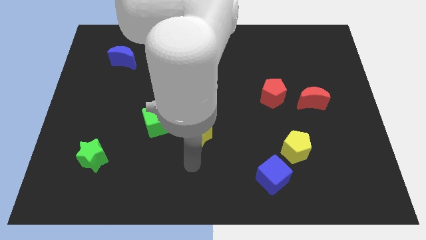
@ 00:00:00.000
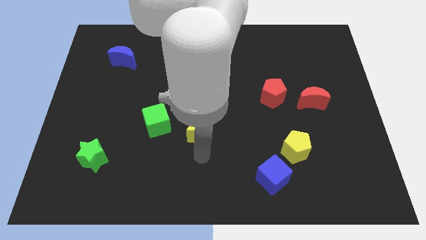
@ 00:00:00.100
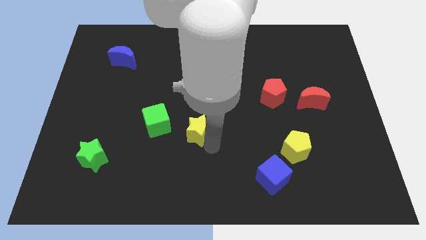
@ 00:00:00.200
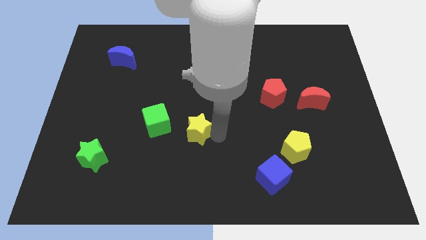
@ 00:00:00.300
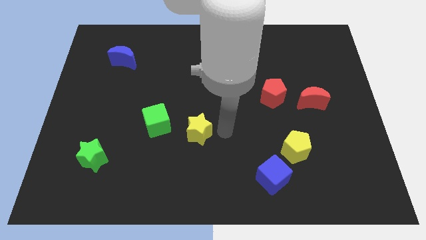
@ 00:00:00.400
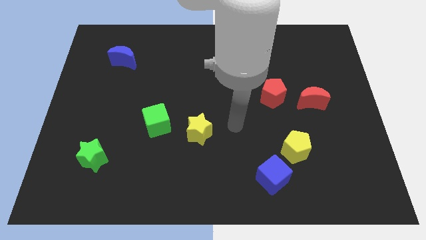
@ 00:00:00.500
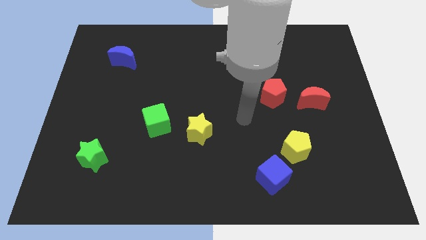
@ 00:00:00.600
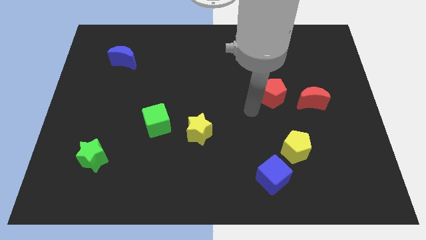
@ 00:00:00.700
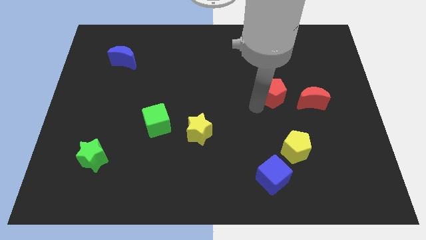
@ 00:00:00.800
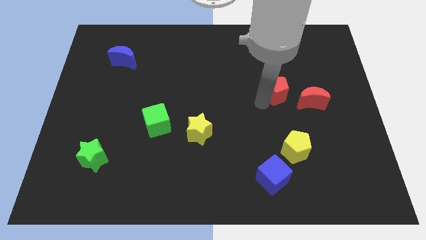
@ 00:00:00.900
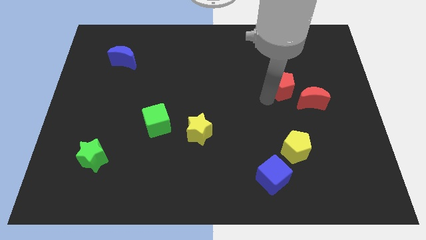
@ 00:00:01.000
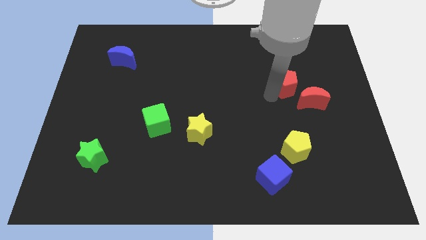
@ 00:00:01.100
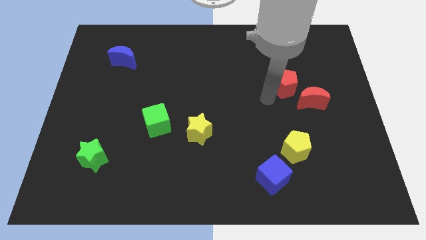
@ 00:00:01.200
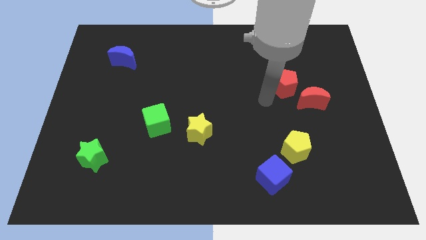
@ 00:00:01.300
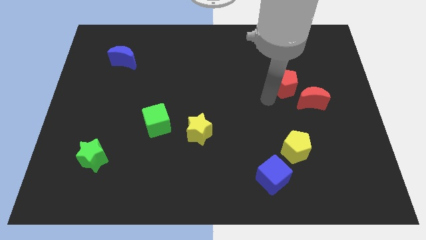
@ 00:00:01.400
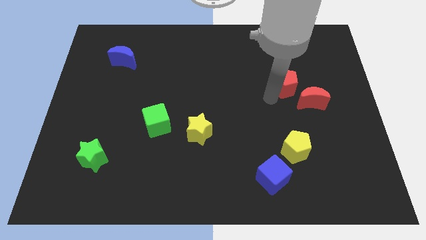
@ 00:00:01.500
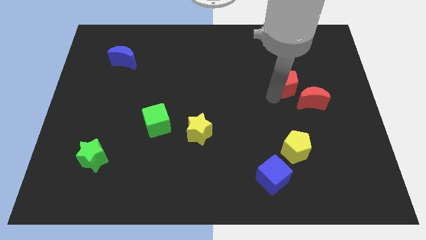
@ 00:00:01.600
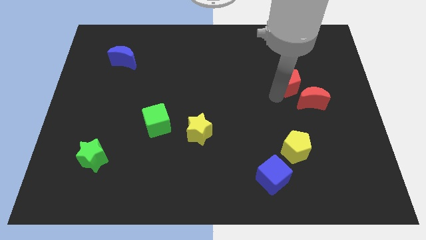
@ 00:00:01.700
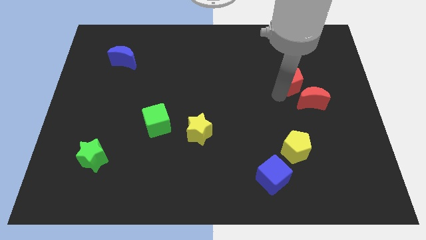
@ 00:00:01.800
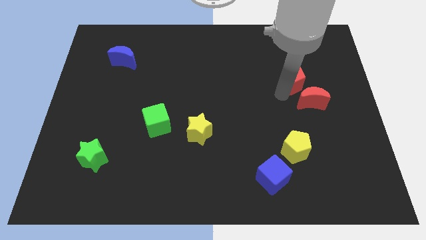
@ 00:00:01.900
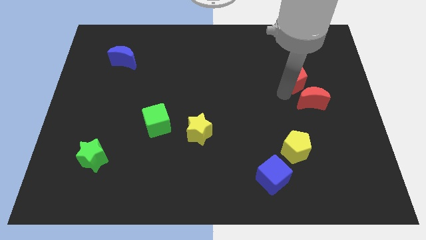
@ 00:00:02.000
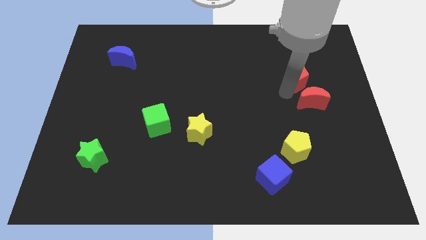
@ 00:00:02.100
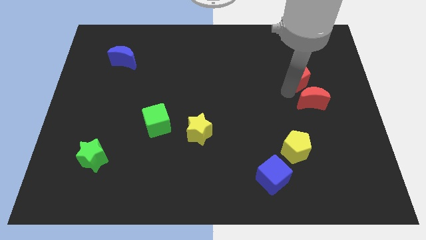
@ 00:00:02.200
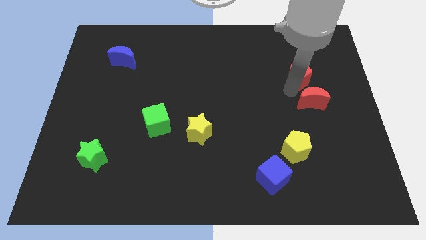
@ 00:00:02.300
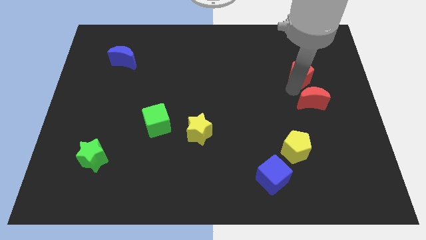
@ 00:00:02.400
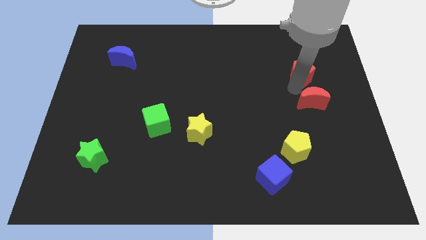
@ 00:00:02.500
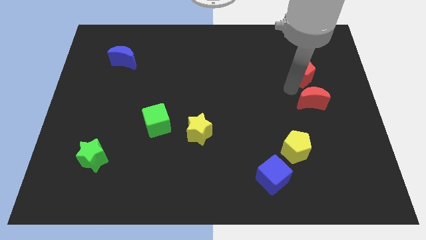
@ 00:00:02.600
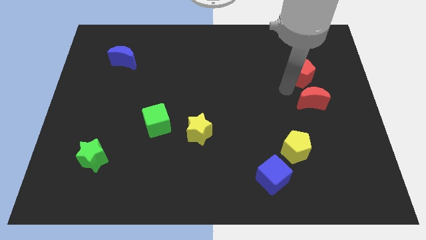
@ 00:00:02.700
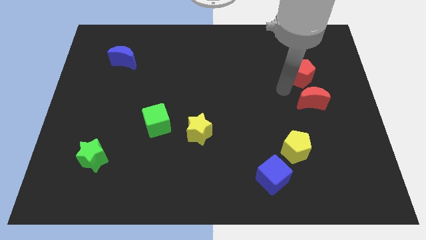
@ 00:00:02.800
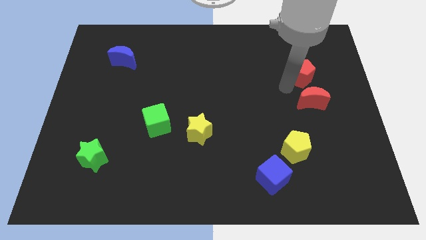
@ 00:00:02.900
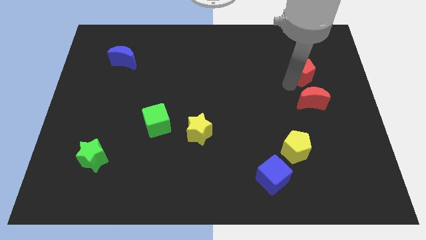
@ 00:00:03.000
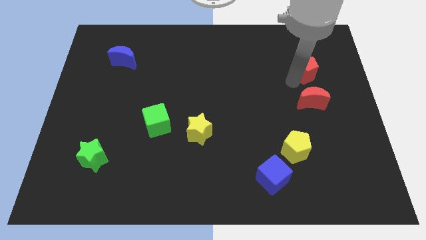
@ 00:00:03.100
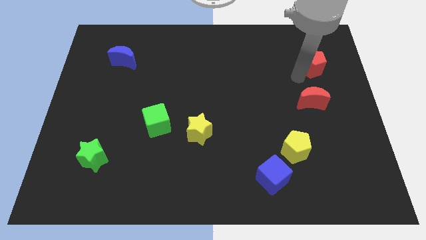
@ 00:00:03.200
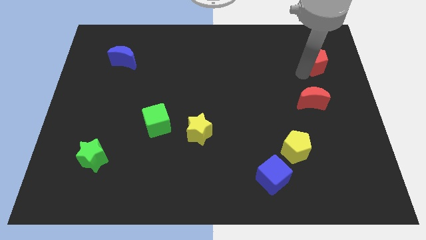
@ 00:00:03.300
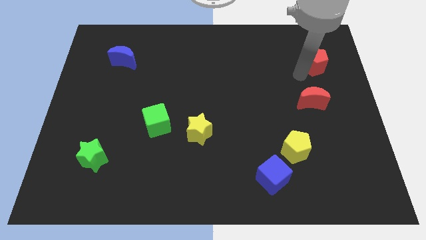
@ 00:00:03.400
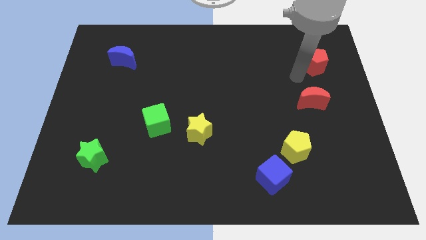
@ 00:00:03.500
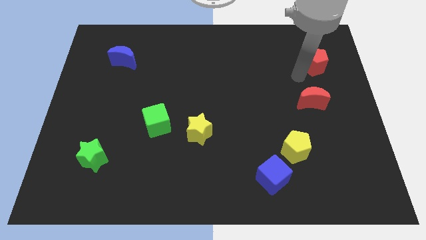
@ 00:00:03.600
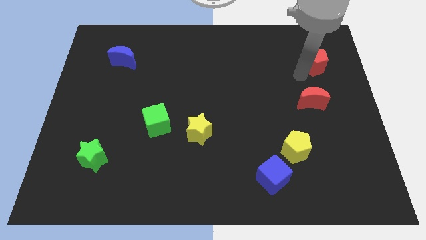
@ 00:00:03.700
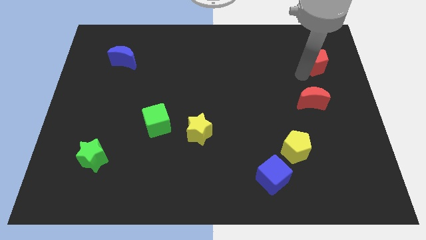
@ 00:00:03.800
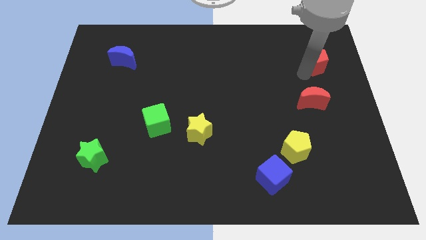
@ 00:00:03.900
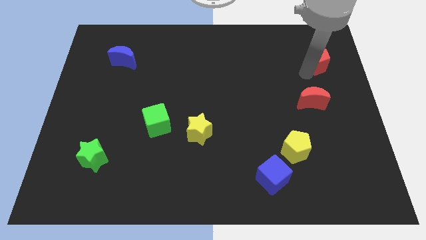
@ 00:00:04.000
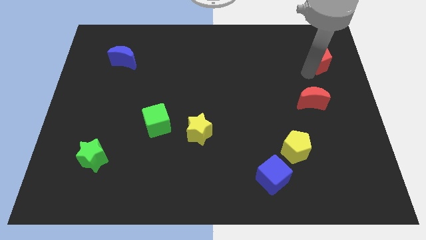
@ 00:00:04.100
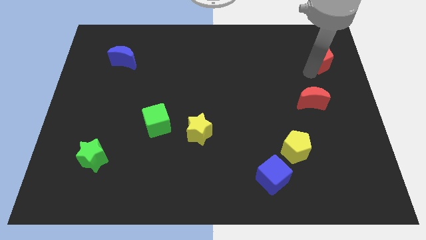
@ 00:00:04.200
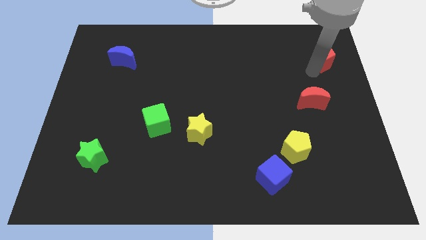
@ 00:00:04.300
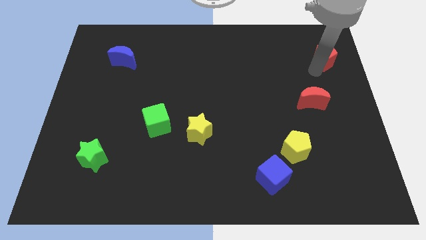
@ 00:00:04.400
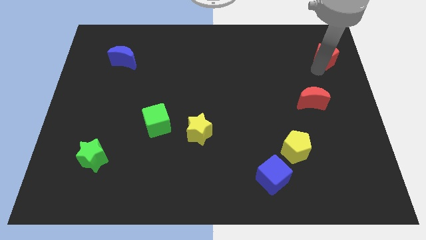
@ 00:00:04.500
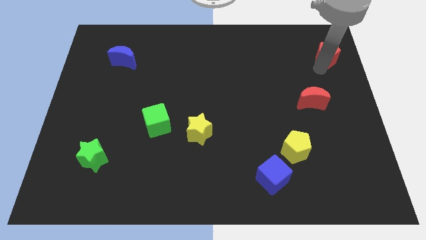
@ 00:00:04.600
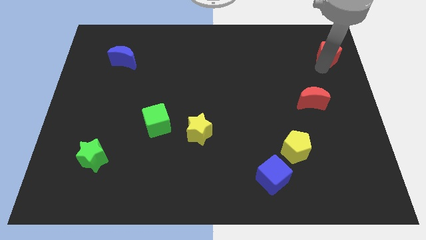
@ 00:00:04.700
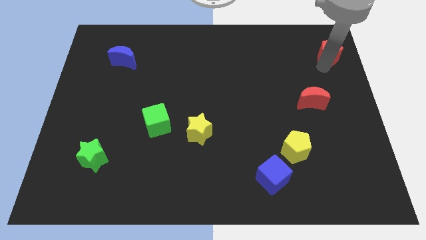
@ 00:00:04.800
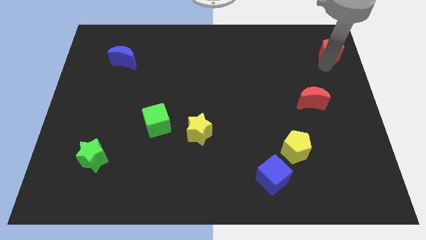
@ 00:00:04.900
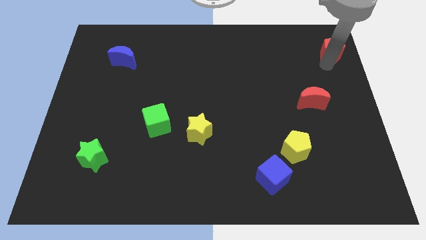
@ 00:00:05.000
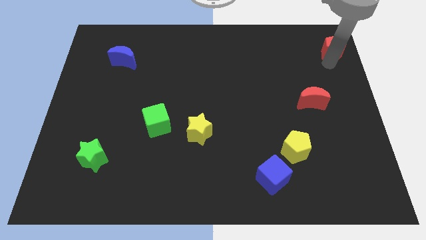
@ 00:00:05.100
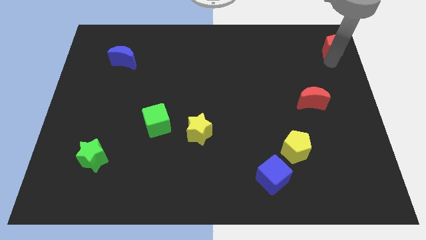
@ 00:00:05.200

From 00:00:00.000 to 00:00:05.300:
slide the red pentagon to the upper right corner

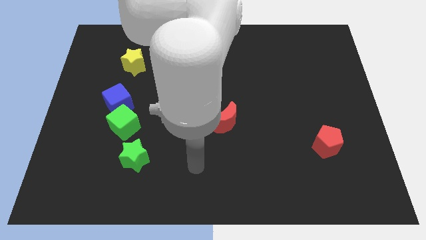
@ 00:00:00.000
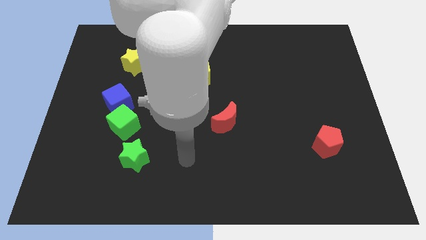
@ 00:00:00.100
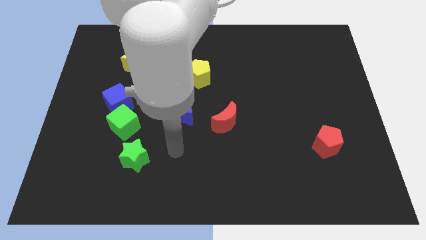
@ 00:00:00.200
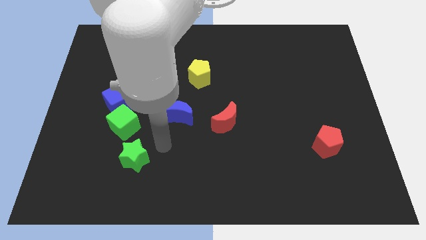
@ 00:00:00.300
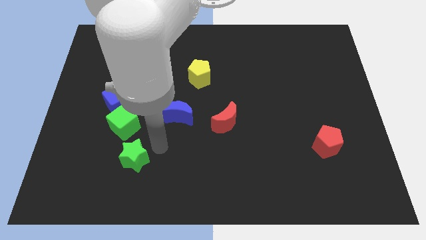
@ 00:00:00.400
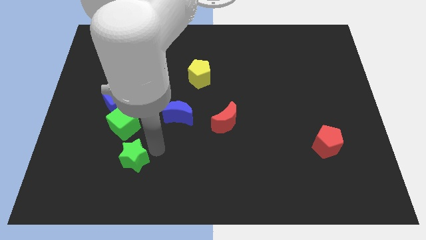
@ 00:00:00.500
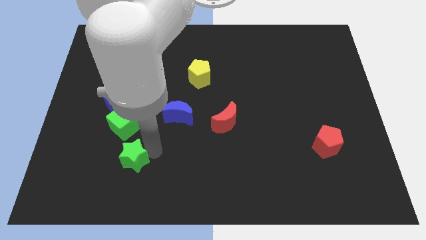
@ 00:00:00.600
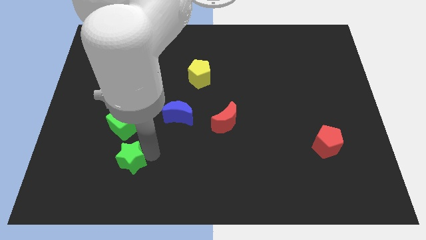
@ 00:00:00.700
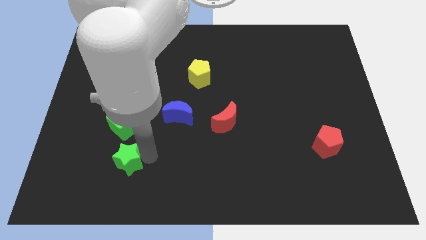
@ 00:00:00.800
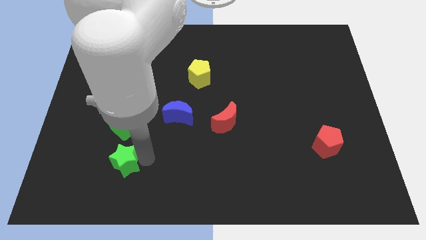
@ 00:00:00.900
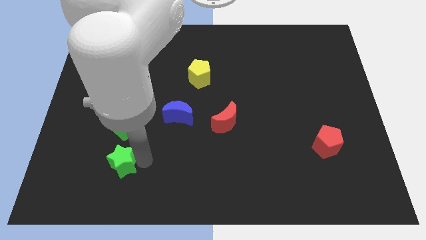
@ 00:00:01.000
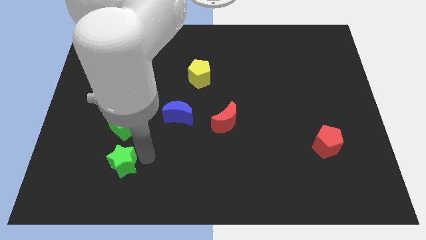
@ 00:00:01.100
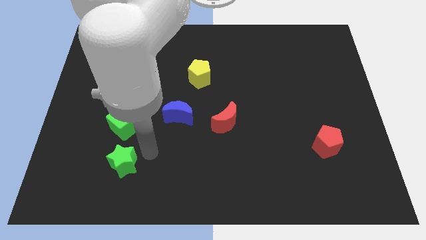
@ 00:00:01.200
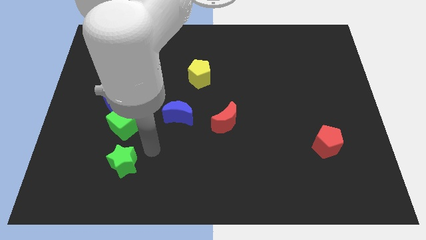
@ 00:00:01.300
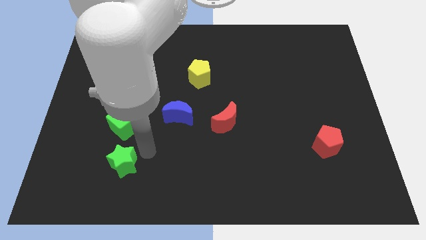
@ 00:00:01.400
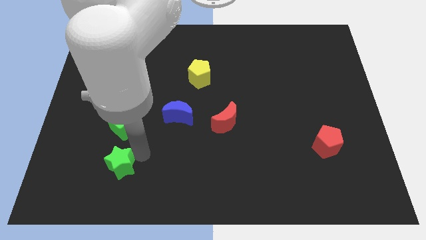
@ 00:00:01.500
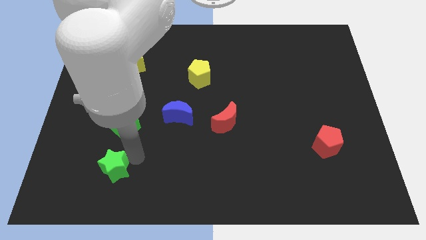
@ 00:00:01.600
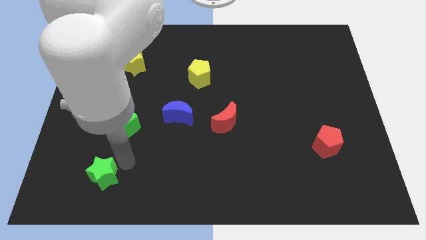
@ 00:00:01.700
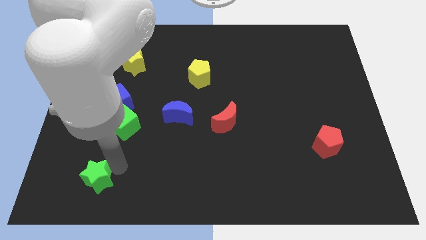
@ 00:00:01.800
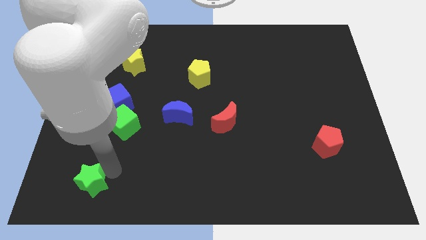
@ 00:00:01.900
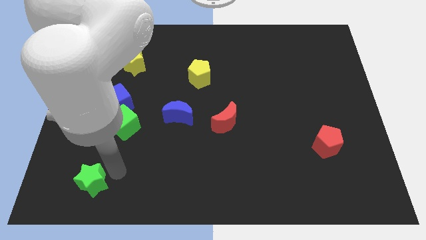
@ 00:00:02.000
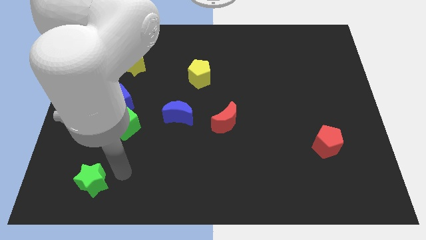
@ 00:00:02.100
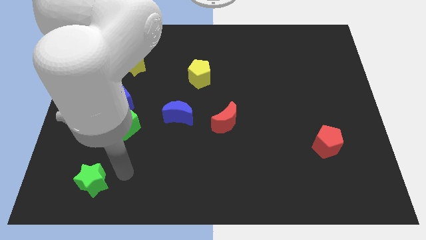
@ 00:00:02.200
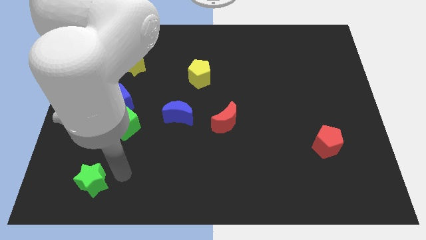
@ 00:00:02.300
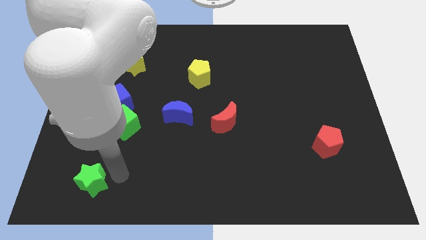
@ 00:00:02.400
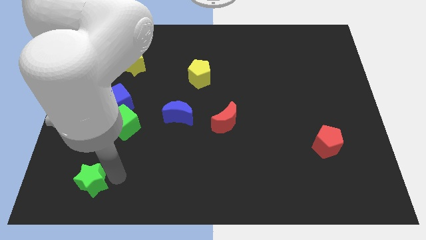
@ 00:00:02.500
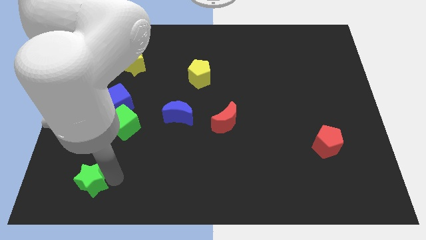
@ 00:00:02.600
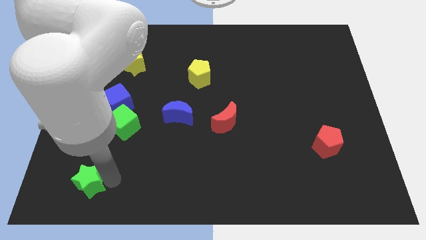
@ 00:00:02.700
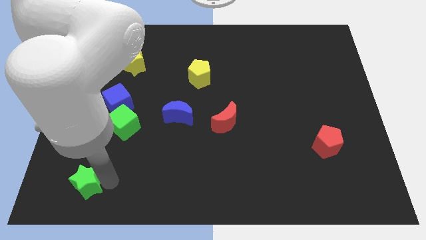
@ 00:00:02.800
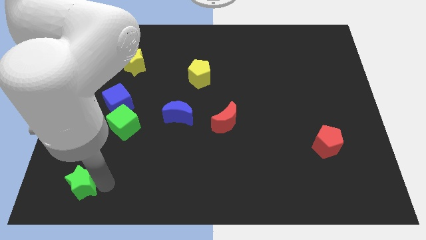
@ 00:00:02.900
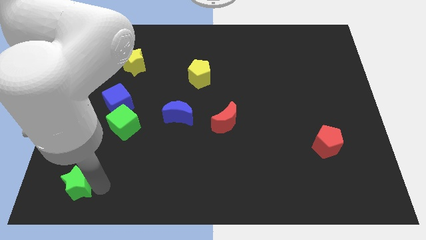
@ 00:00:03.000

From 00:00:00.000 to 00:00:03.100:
slide the green star to the bottom left of the board
